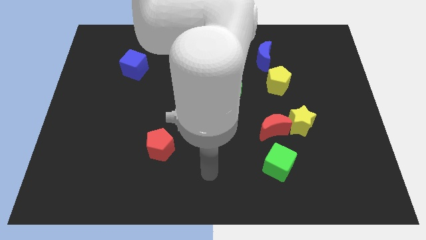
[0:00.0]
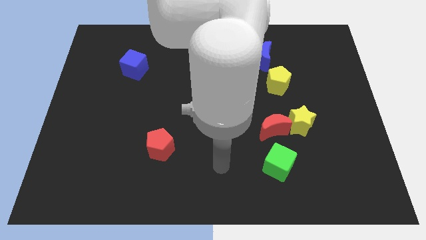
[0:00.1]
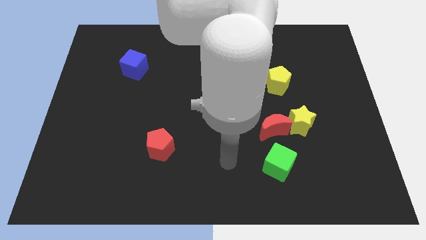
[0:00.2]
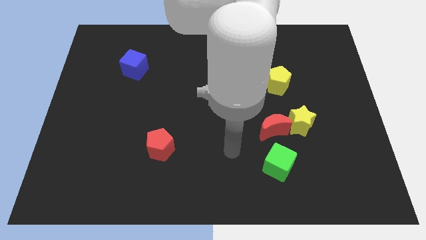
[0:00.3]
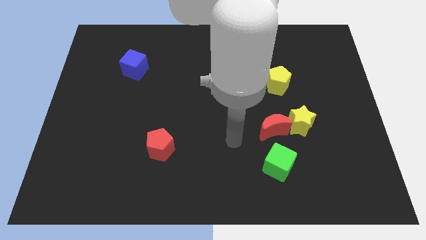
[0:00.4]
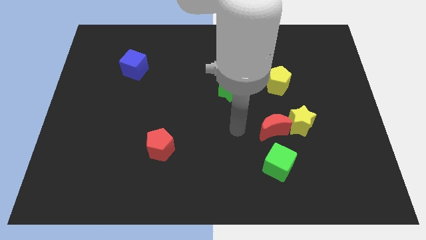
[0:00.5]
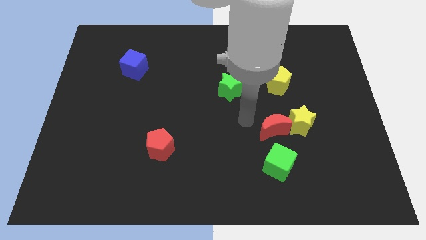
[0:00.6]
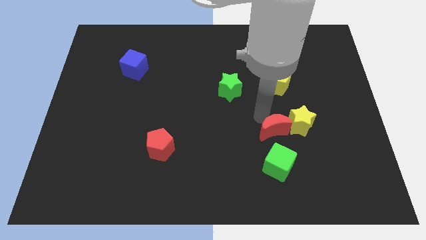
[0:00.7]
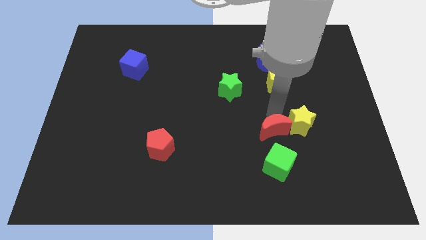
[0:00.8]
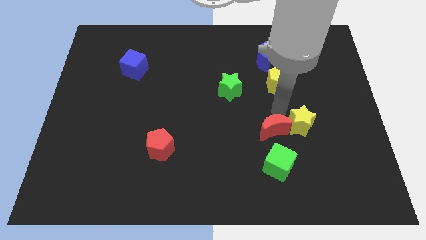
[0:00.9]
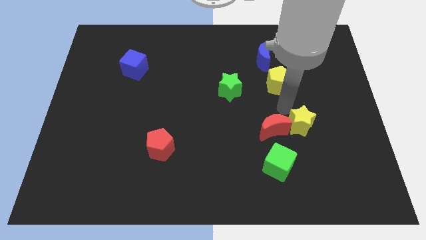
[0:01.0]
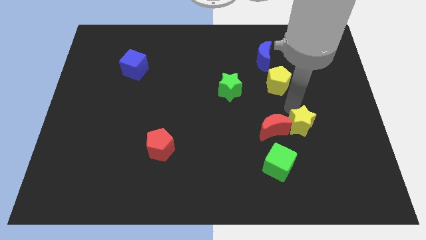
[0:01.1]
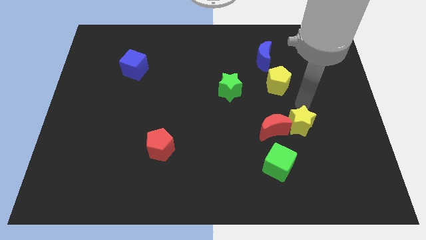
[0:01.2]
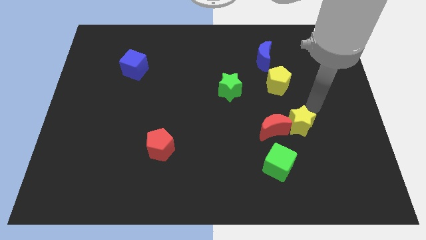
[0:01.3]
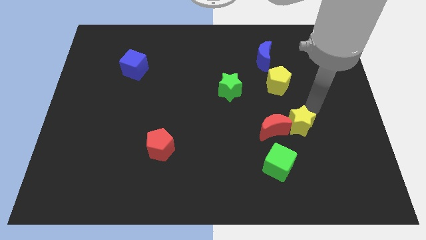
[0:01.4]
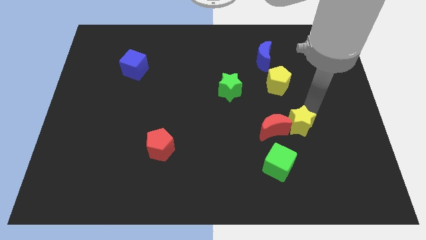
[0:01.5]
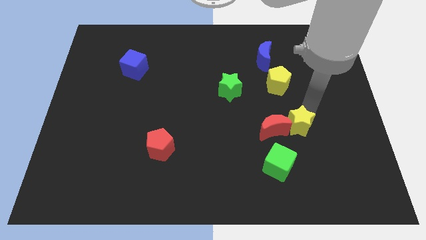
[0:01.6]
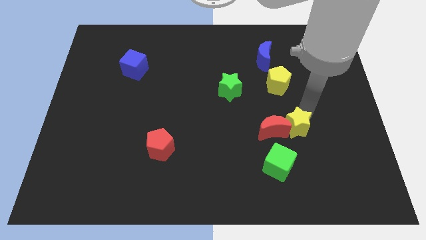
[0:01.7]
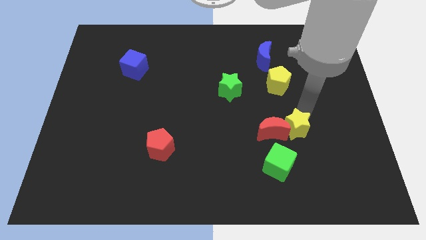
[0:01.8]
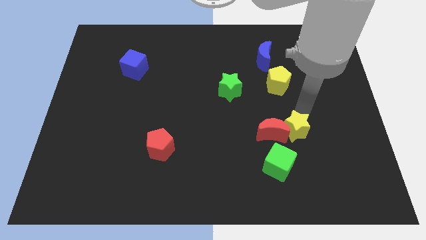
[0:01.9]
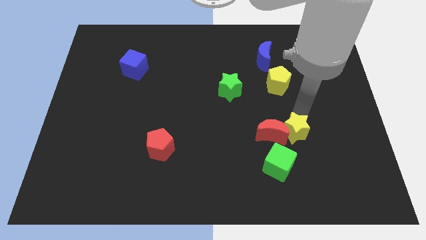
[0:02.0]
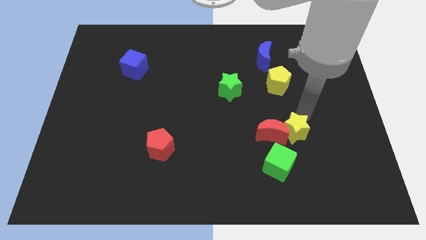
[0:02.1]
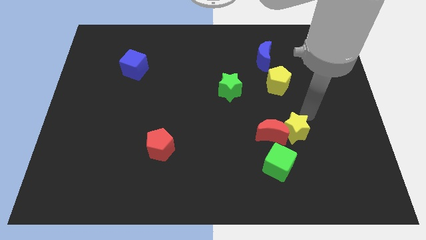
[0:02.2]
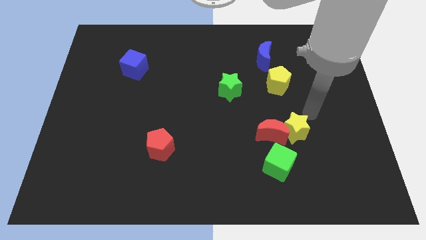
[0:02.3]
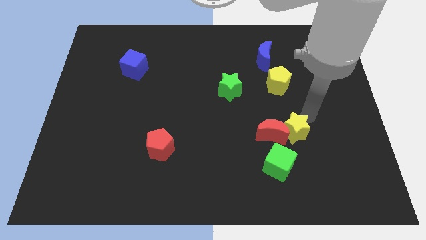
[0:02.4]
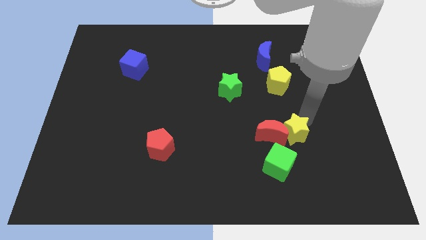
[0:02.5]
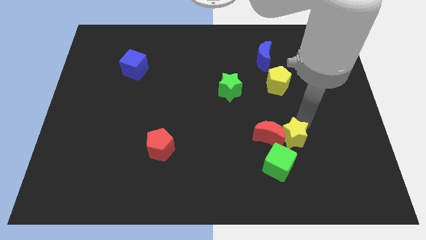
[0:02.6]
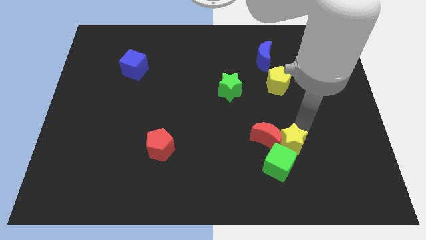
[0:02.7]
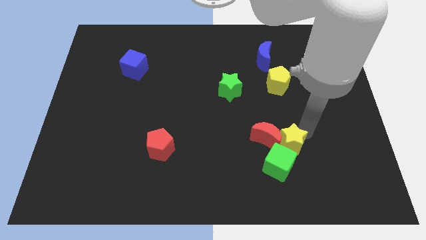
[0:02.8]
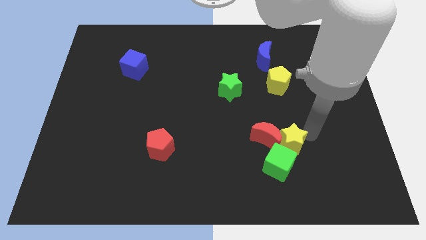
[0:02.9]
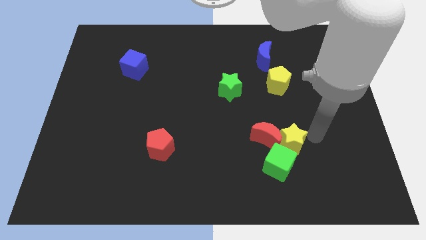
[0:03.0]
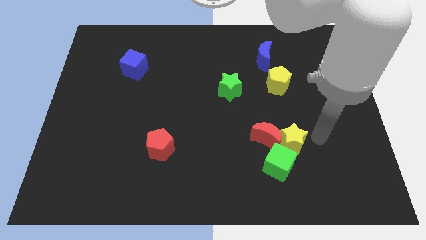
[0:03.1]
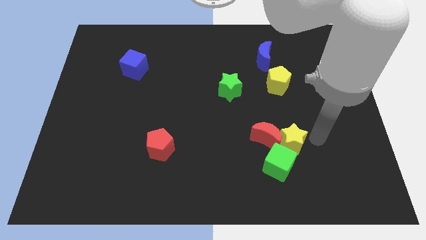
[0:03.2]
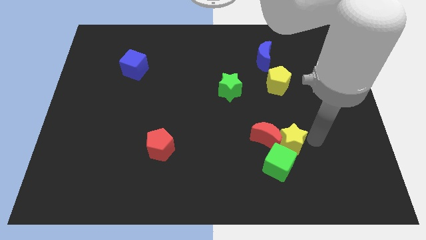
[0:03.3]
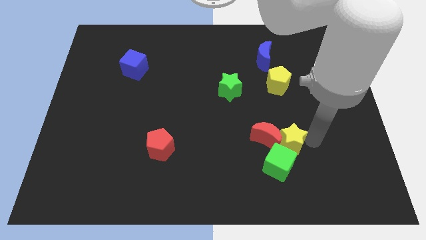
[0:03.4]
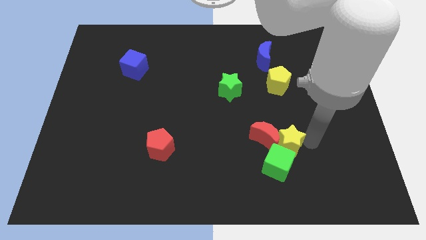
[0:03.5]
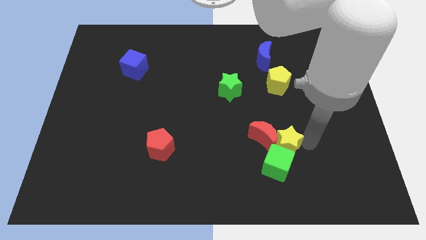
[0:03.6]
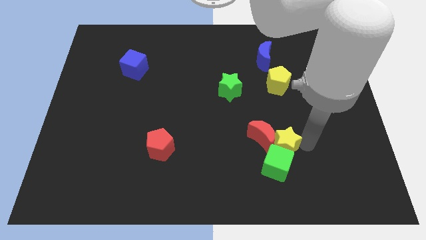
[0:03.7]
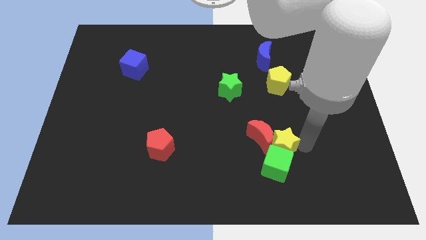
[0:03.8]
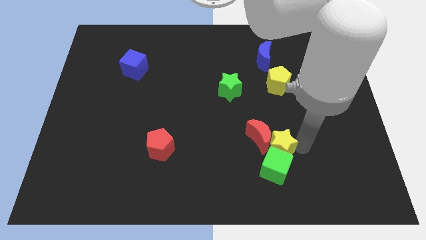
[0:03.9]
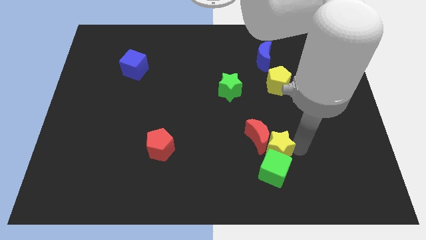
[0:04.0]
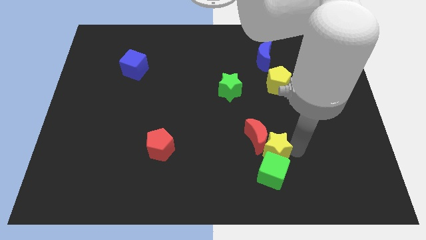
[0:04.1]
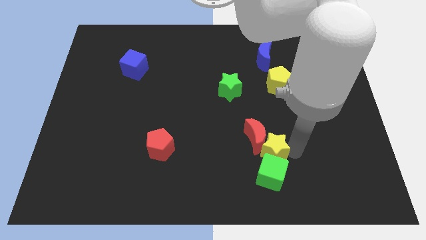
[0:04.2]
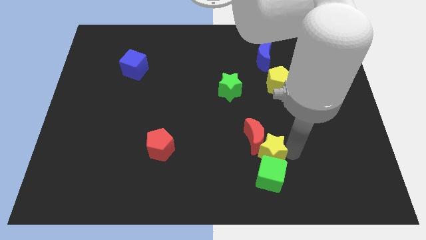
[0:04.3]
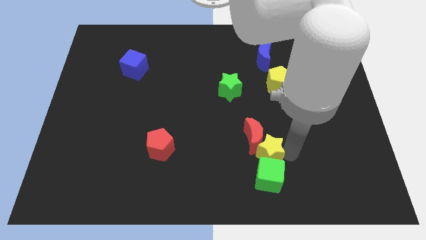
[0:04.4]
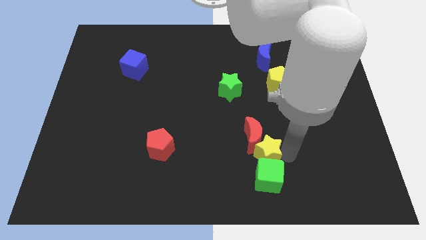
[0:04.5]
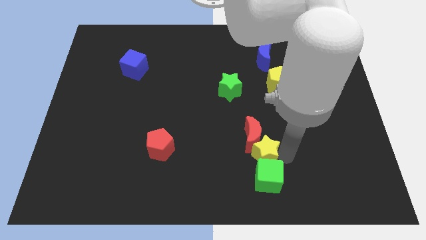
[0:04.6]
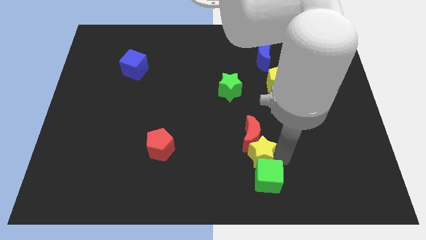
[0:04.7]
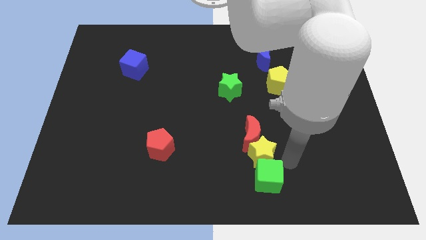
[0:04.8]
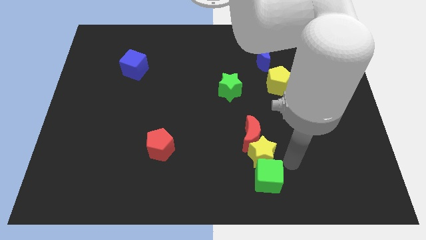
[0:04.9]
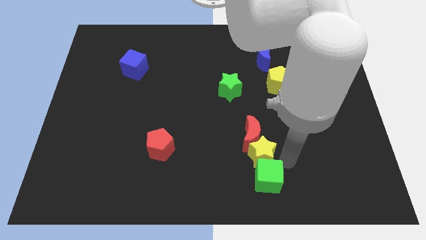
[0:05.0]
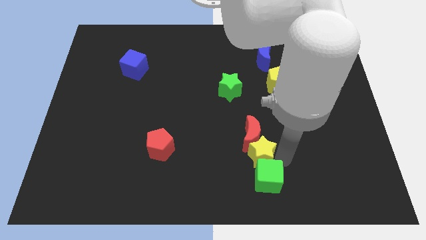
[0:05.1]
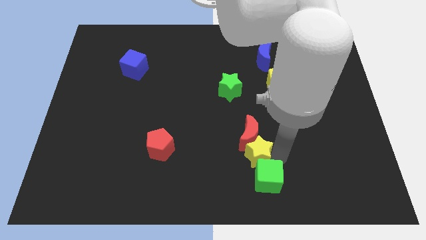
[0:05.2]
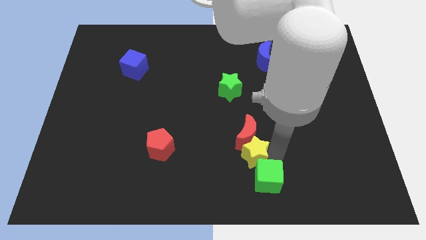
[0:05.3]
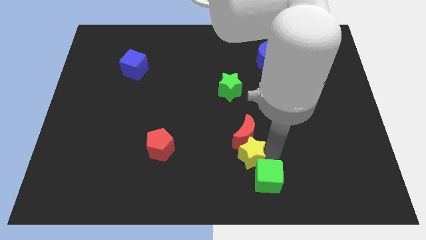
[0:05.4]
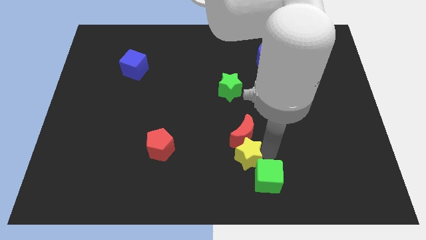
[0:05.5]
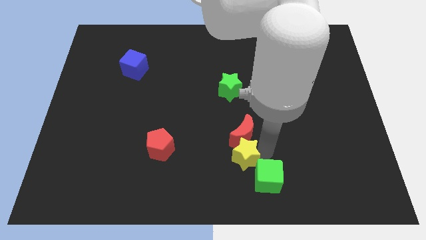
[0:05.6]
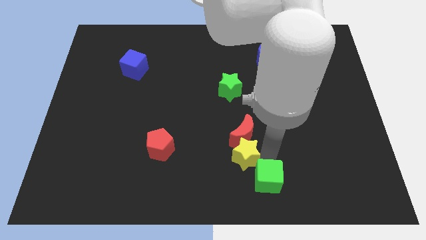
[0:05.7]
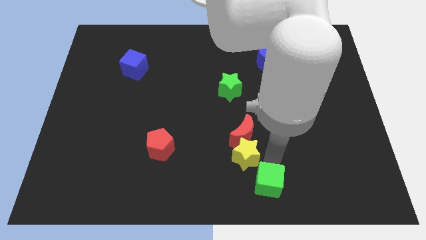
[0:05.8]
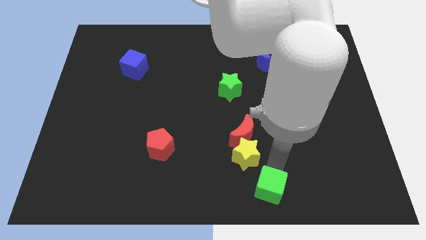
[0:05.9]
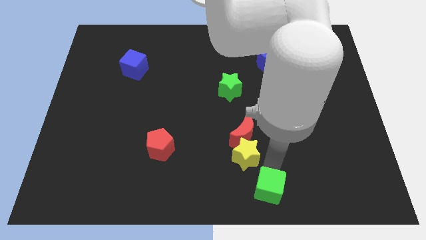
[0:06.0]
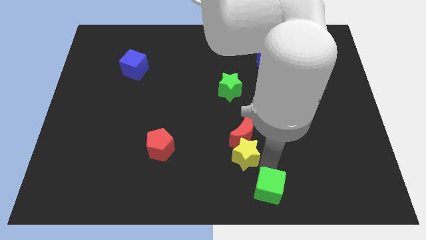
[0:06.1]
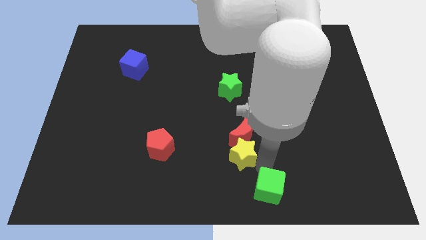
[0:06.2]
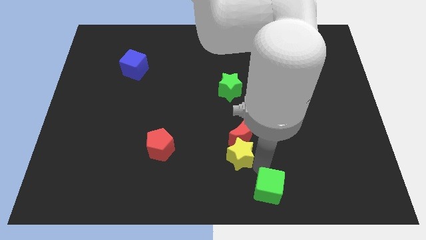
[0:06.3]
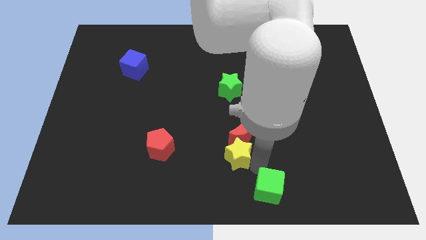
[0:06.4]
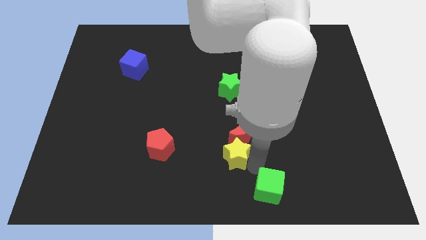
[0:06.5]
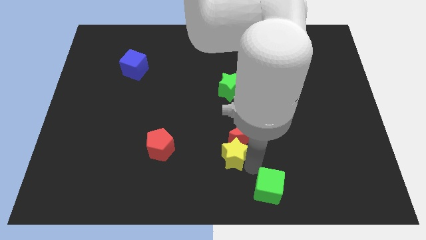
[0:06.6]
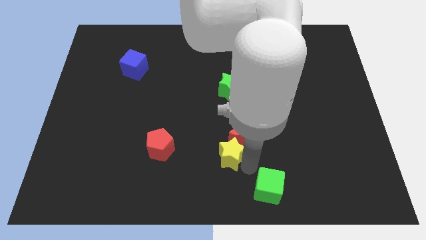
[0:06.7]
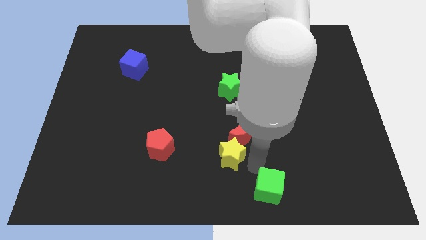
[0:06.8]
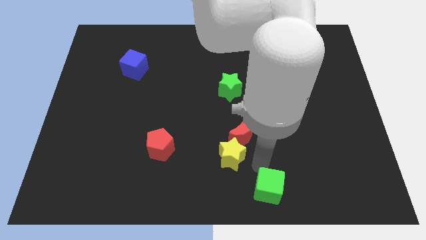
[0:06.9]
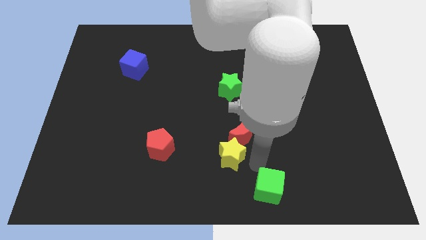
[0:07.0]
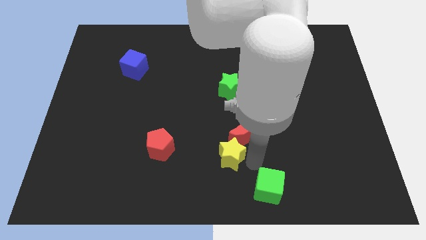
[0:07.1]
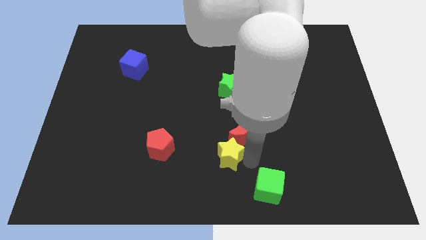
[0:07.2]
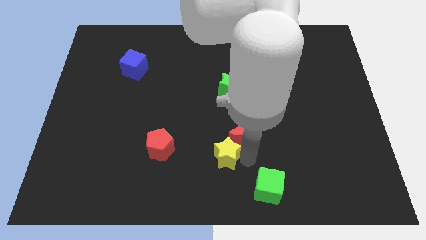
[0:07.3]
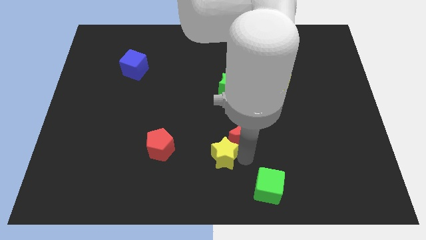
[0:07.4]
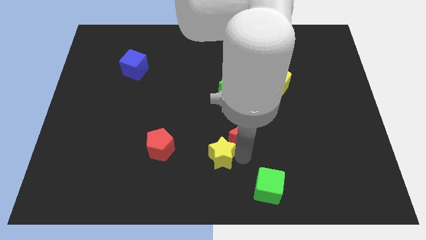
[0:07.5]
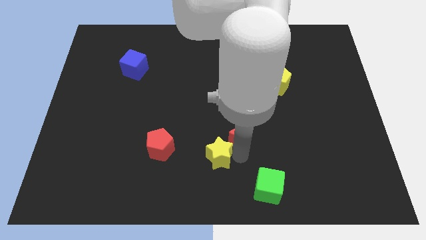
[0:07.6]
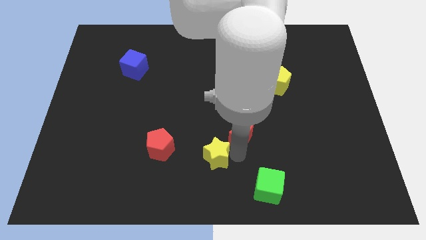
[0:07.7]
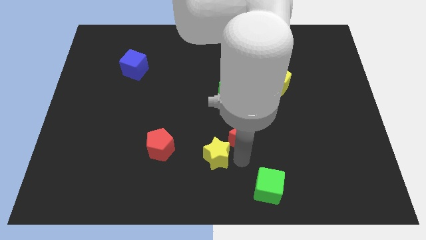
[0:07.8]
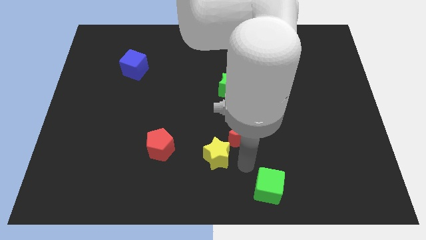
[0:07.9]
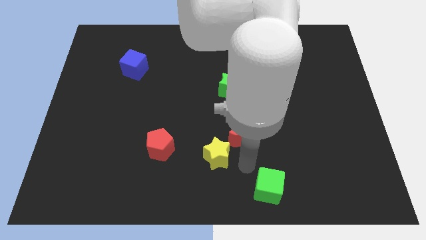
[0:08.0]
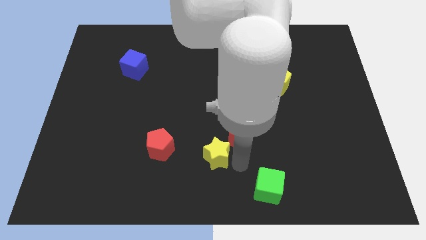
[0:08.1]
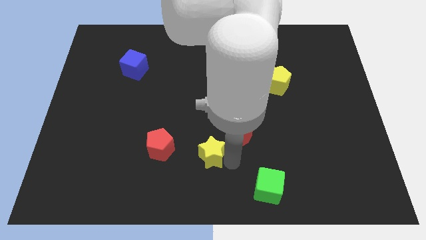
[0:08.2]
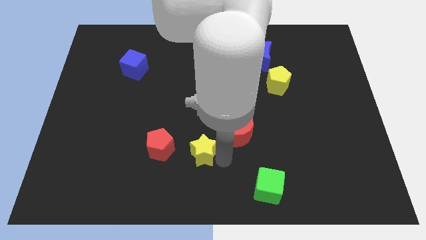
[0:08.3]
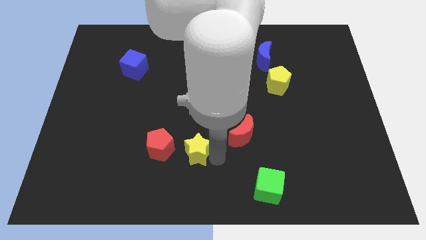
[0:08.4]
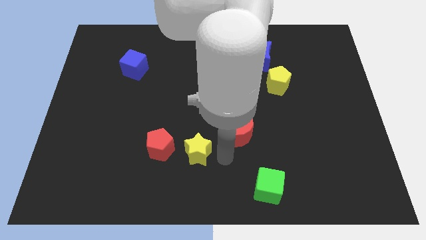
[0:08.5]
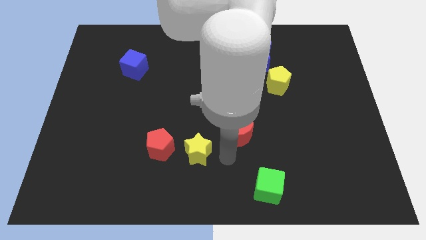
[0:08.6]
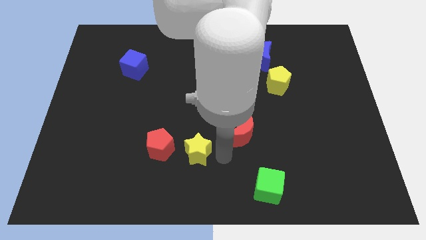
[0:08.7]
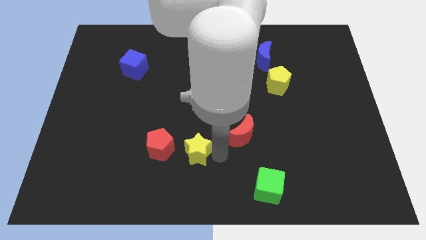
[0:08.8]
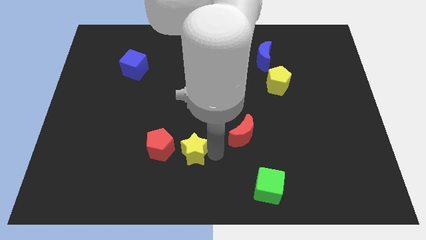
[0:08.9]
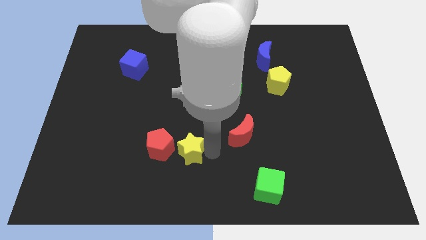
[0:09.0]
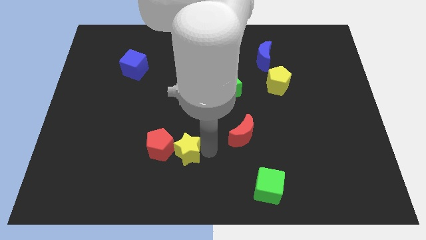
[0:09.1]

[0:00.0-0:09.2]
slide the yellow star to the red pentagon
